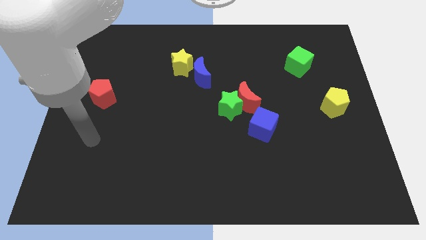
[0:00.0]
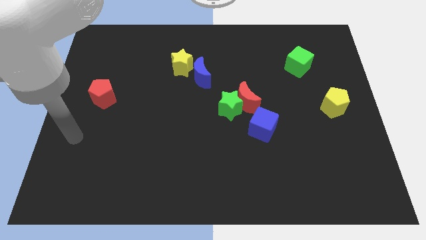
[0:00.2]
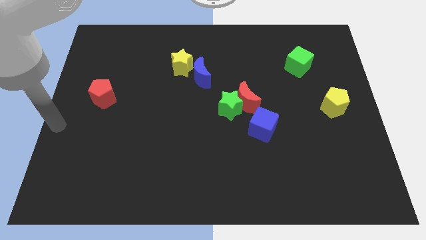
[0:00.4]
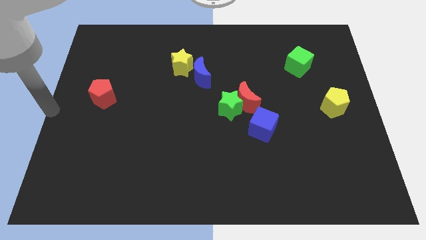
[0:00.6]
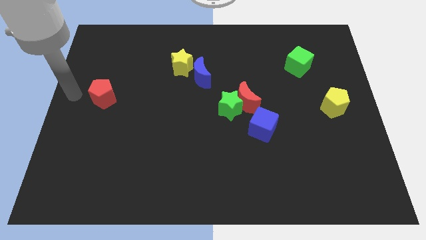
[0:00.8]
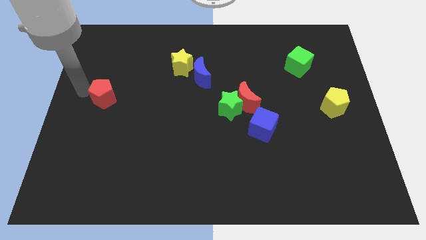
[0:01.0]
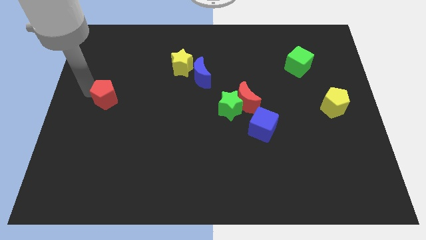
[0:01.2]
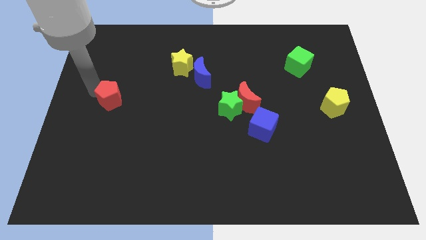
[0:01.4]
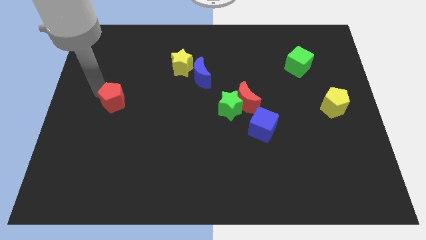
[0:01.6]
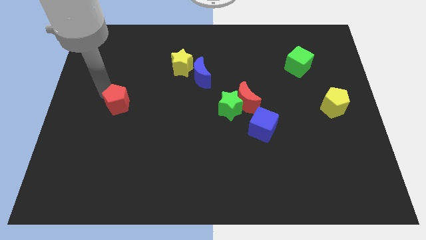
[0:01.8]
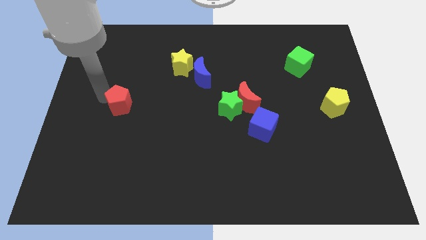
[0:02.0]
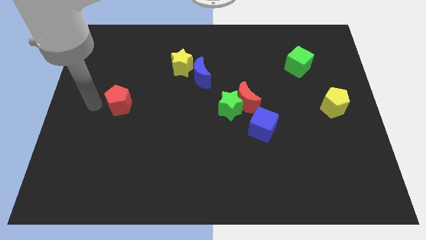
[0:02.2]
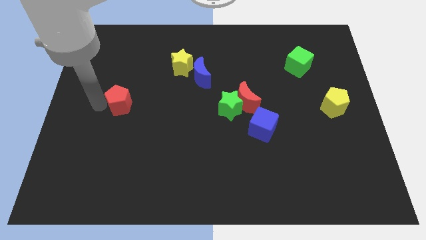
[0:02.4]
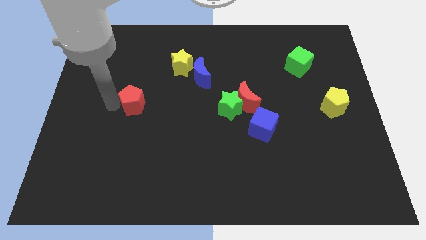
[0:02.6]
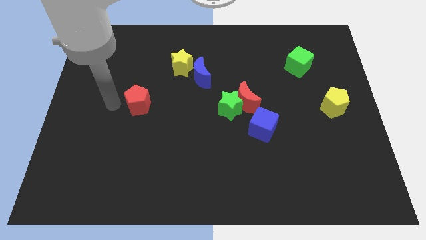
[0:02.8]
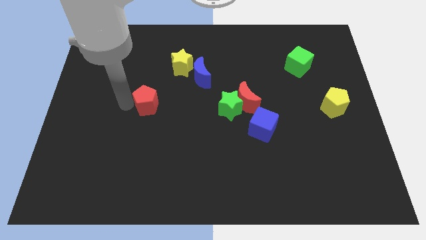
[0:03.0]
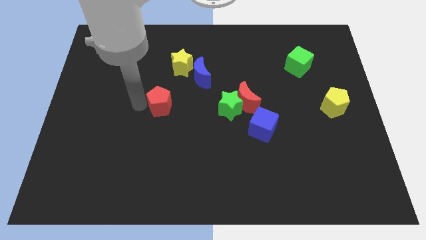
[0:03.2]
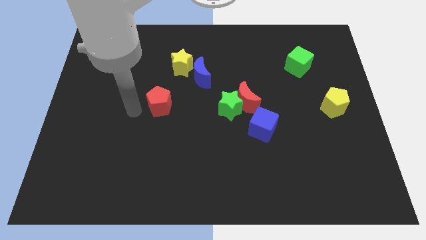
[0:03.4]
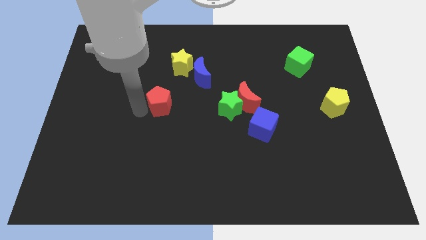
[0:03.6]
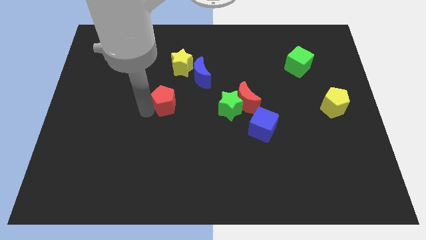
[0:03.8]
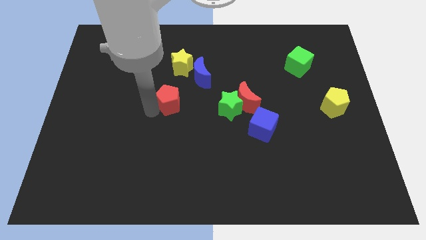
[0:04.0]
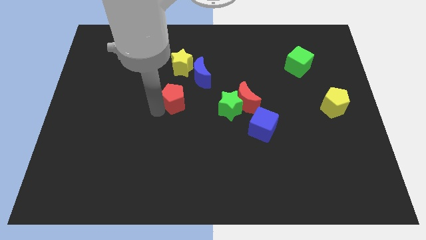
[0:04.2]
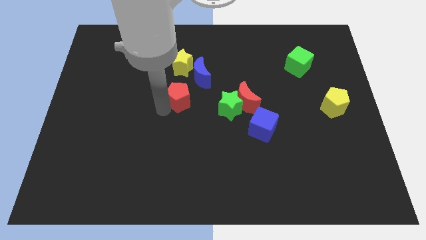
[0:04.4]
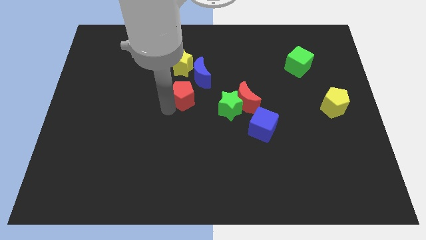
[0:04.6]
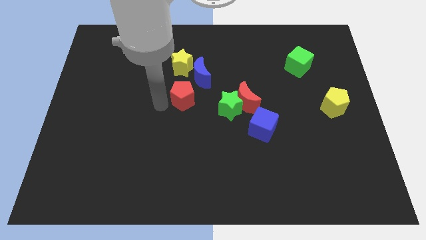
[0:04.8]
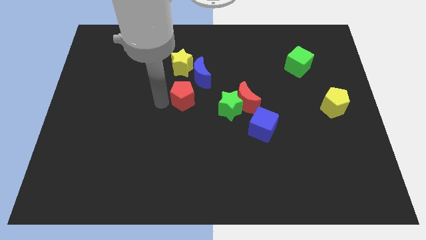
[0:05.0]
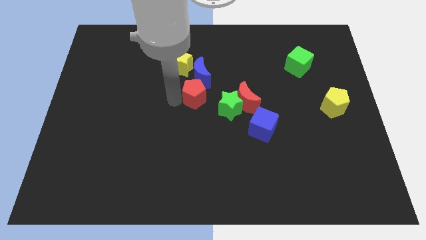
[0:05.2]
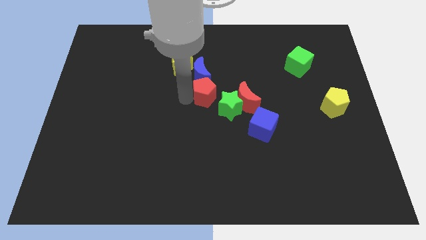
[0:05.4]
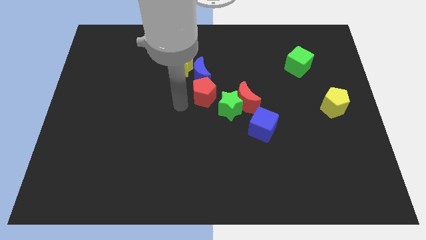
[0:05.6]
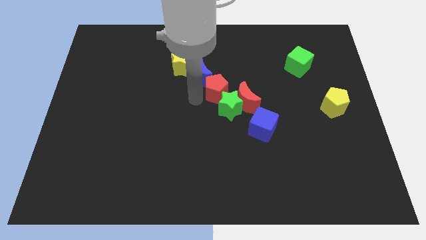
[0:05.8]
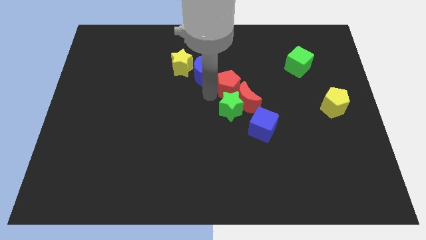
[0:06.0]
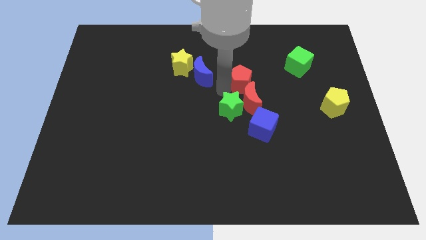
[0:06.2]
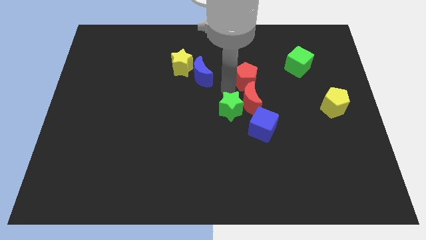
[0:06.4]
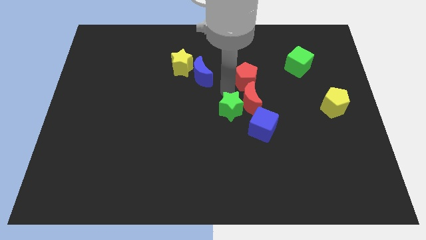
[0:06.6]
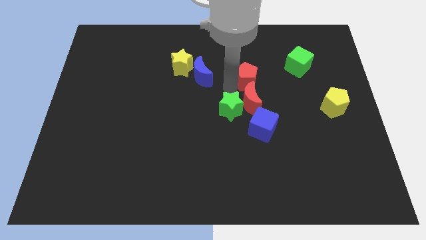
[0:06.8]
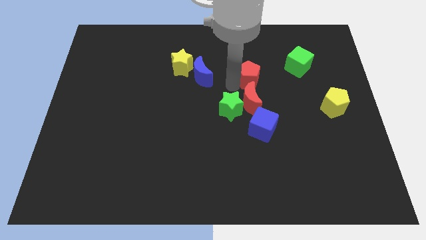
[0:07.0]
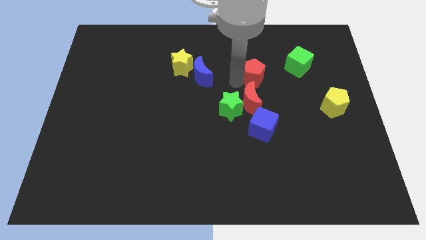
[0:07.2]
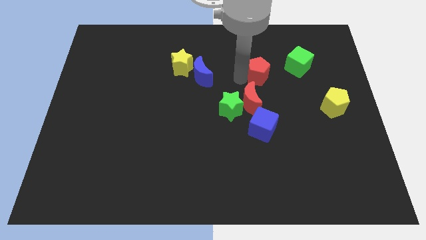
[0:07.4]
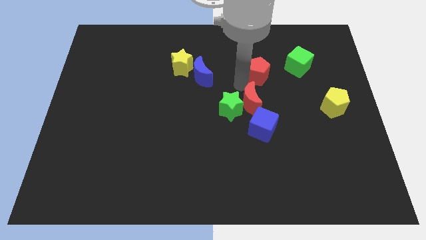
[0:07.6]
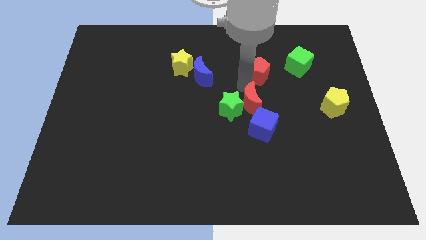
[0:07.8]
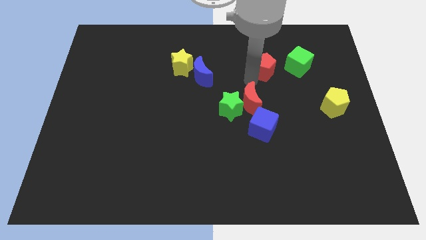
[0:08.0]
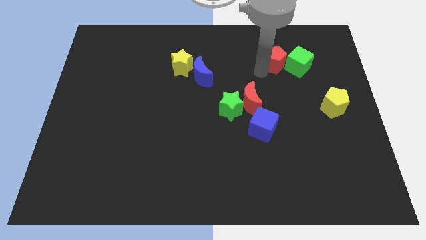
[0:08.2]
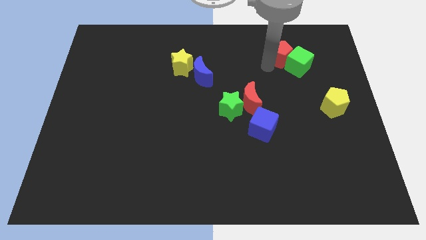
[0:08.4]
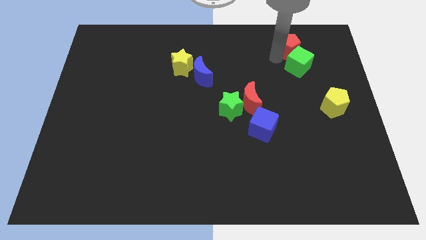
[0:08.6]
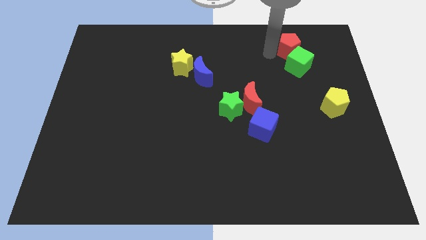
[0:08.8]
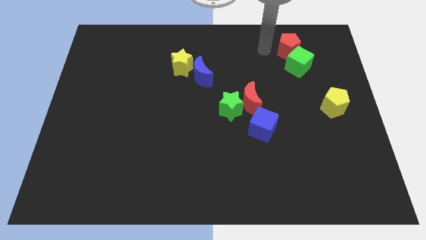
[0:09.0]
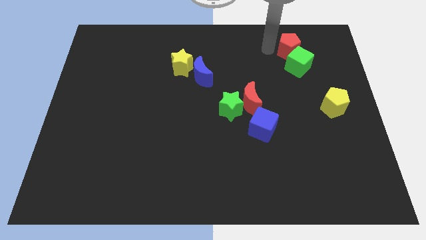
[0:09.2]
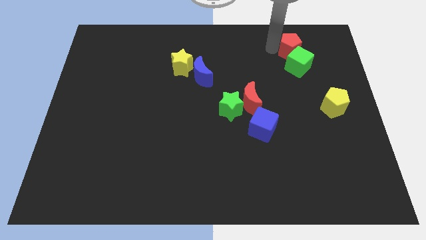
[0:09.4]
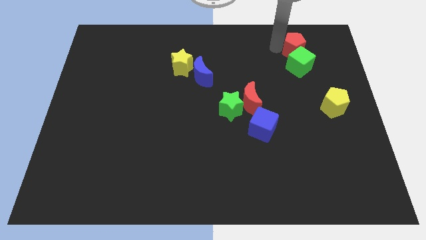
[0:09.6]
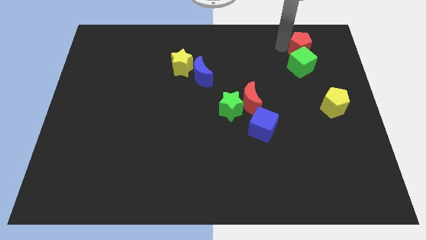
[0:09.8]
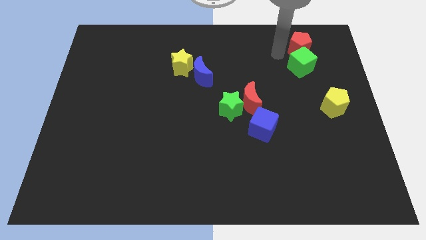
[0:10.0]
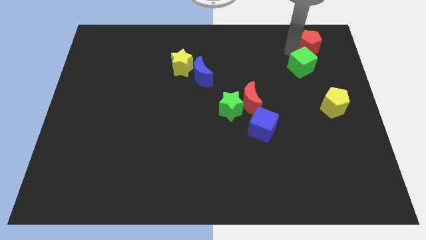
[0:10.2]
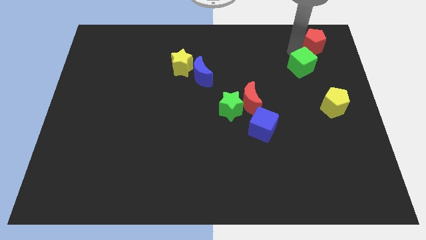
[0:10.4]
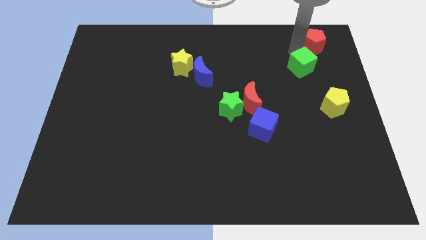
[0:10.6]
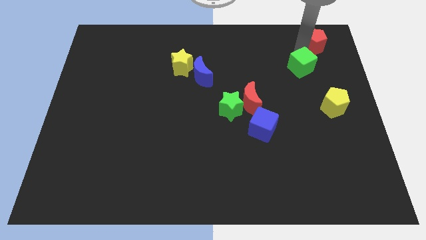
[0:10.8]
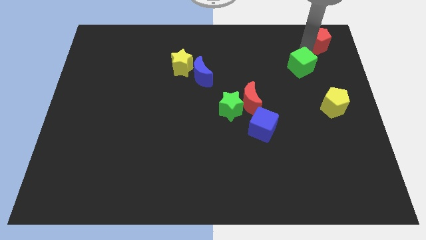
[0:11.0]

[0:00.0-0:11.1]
slide the red pentagon to the top right

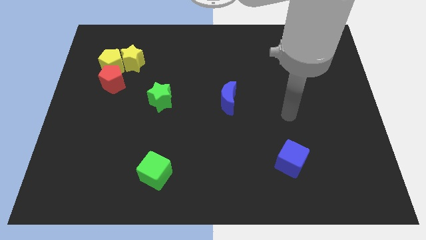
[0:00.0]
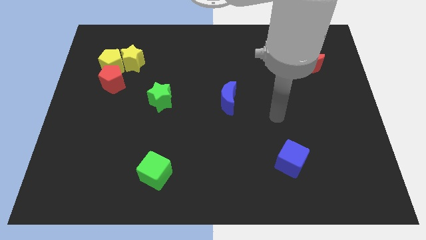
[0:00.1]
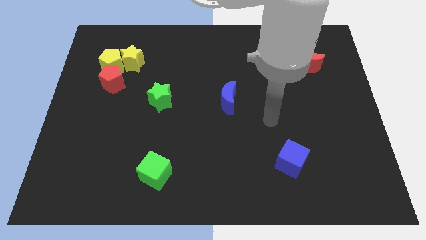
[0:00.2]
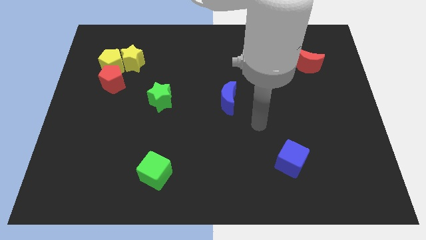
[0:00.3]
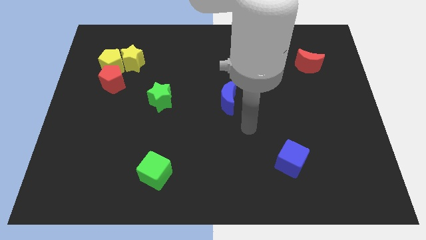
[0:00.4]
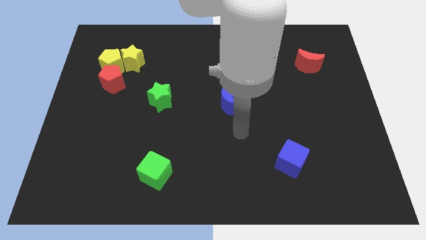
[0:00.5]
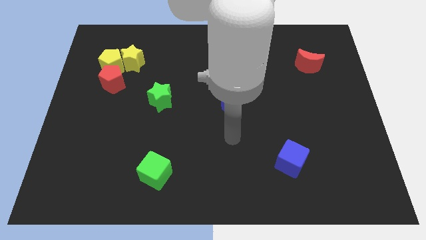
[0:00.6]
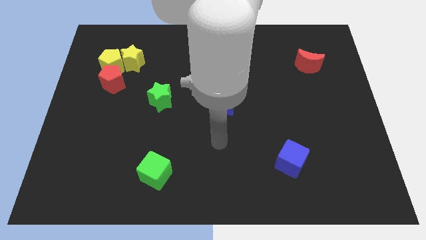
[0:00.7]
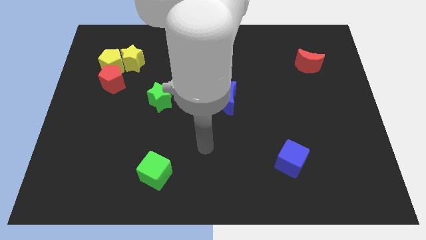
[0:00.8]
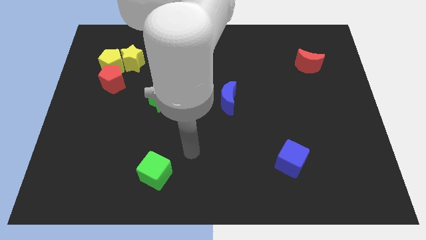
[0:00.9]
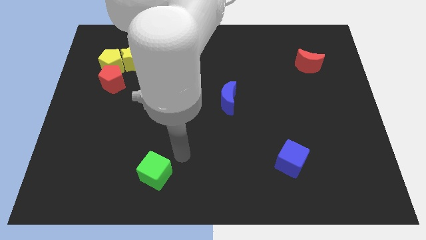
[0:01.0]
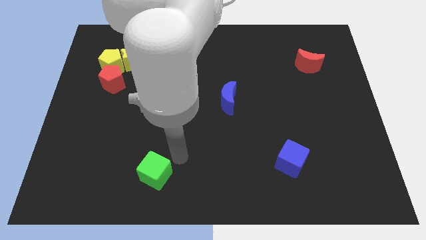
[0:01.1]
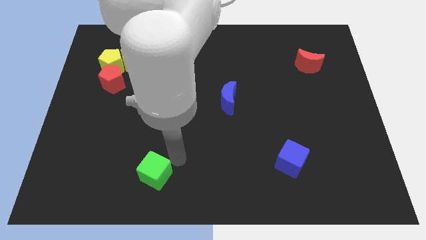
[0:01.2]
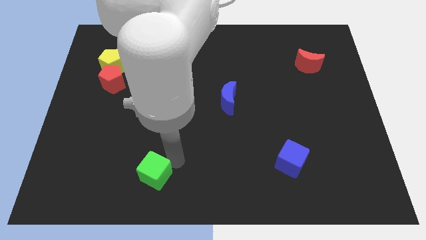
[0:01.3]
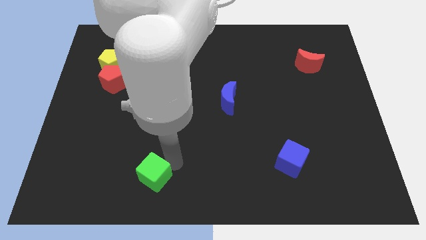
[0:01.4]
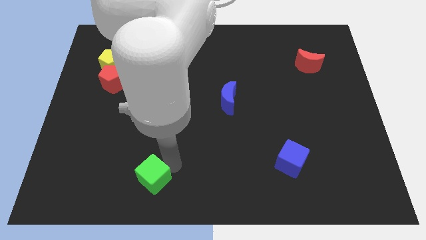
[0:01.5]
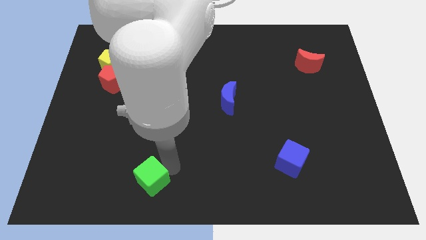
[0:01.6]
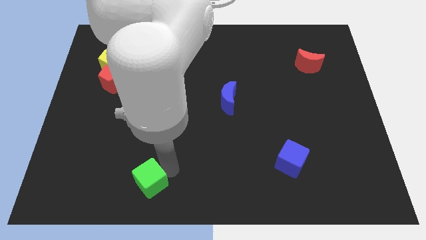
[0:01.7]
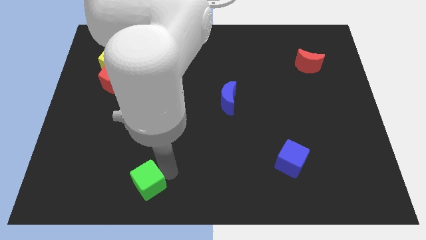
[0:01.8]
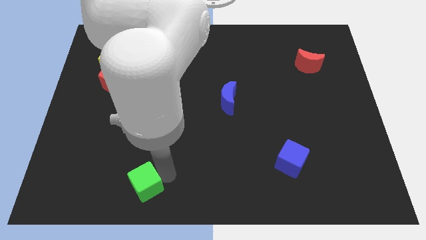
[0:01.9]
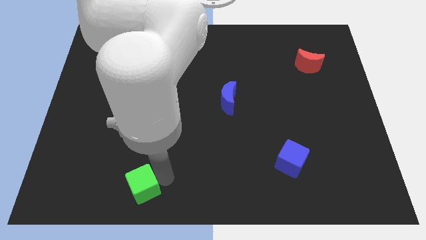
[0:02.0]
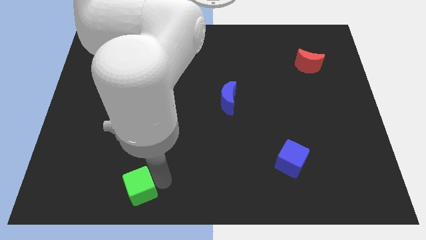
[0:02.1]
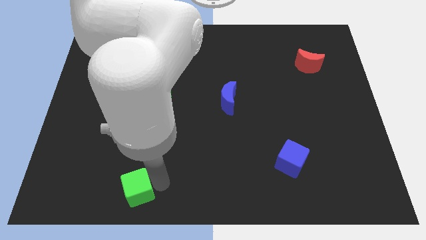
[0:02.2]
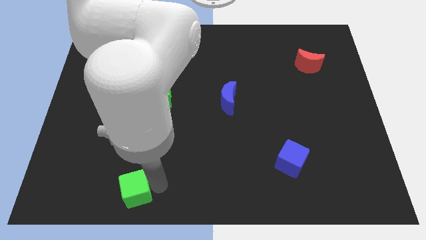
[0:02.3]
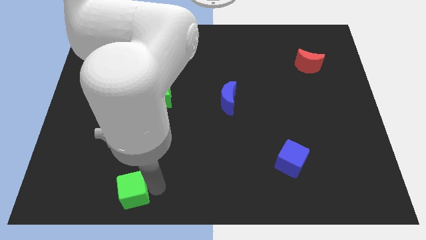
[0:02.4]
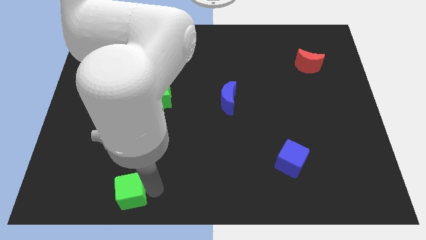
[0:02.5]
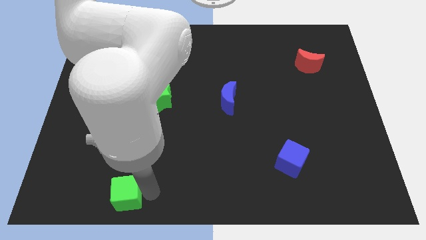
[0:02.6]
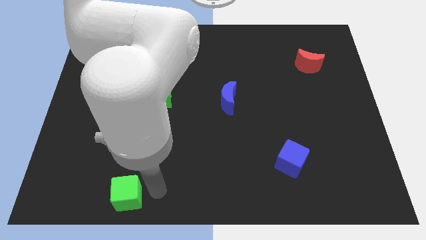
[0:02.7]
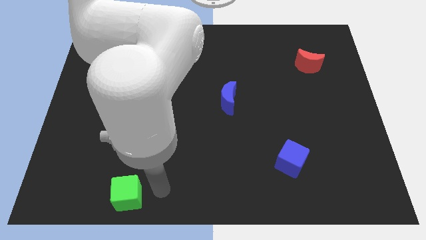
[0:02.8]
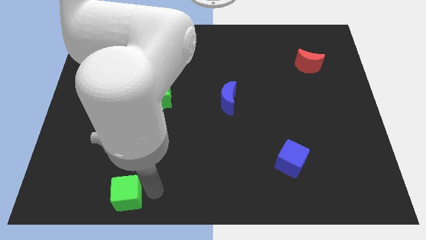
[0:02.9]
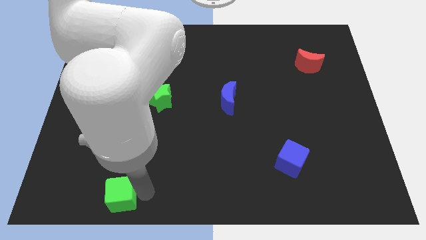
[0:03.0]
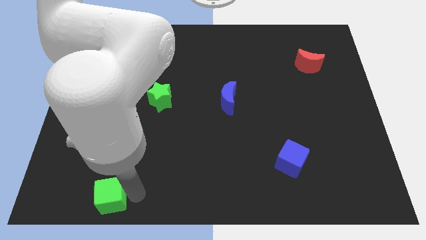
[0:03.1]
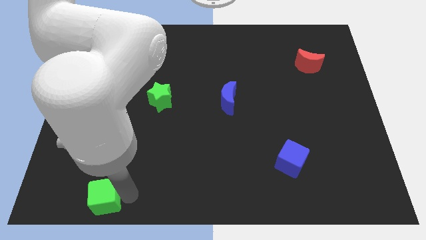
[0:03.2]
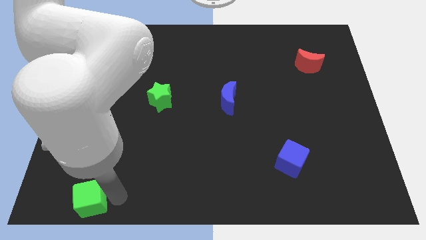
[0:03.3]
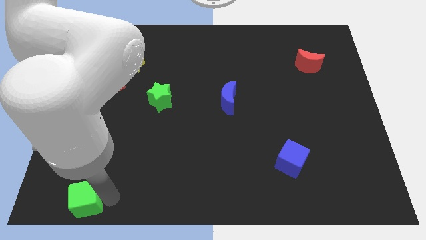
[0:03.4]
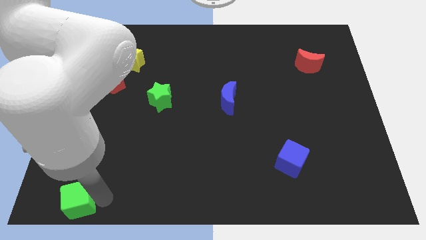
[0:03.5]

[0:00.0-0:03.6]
push the green cube to the lower left corner
